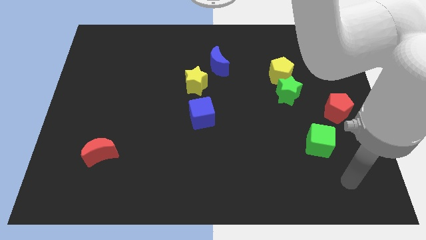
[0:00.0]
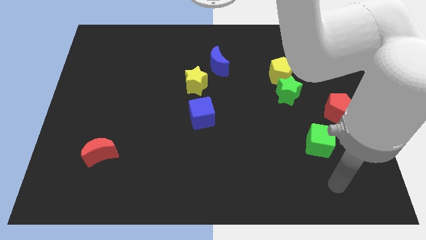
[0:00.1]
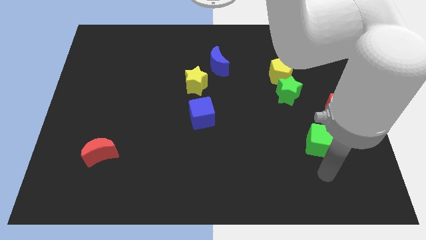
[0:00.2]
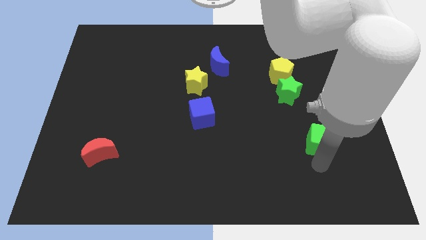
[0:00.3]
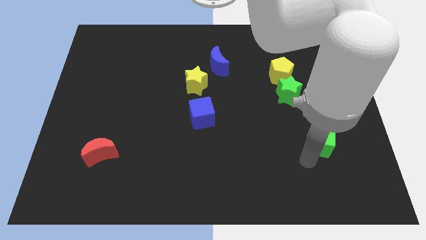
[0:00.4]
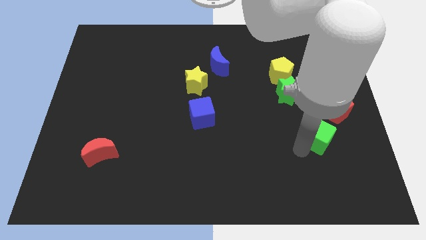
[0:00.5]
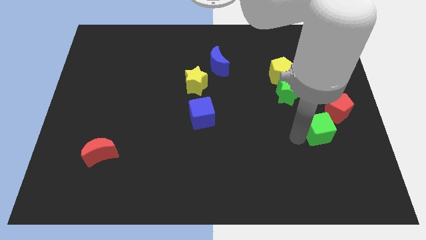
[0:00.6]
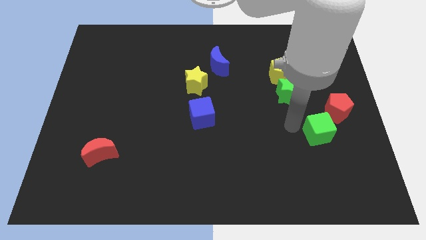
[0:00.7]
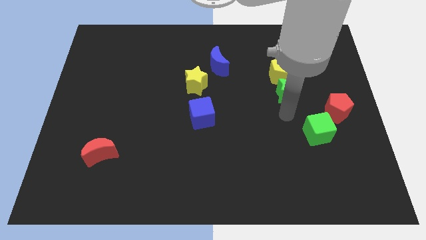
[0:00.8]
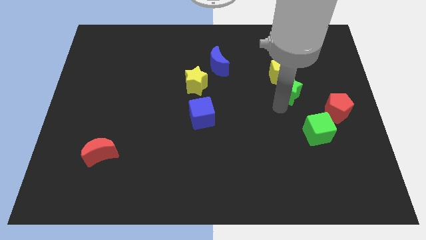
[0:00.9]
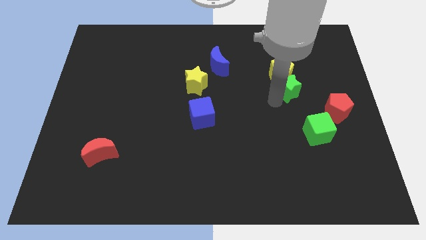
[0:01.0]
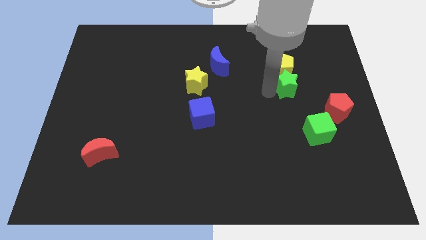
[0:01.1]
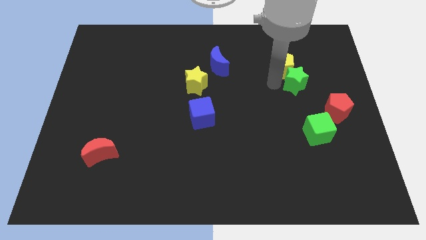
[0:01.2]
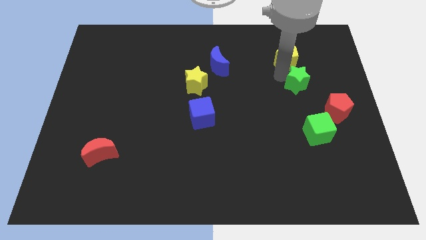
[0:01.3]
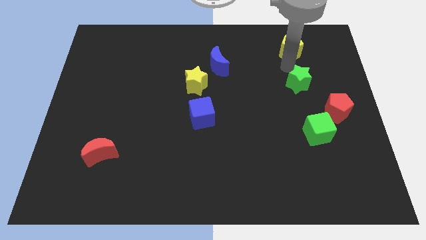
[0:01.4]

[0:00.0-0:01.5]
move the green star away from the yellow pentagon

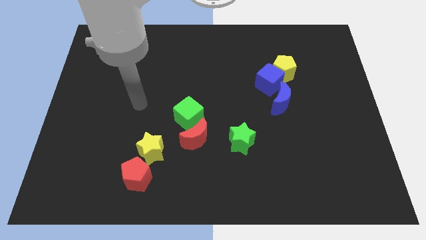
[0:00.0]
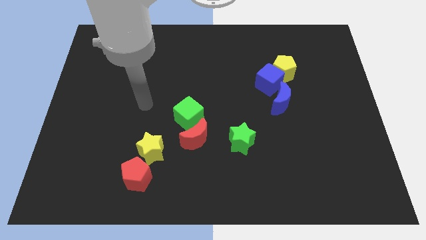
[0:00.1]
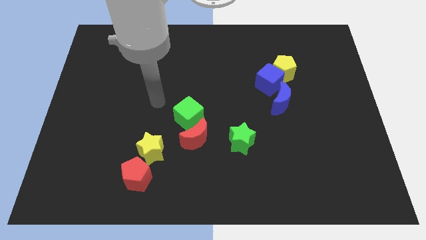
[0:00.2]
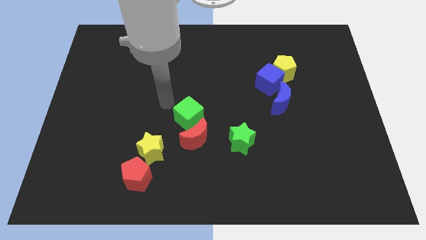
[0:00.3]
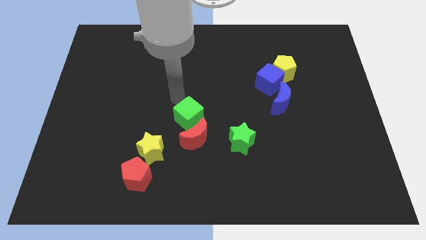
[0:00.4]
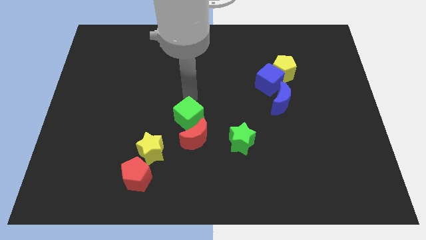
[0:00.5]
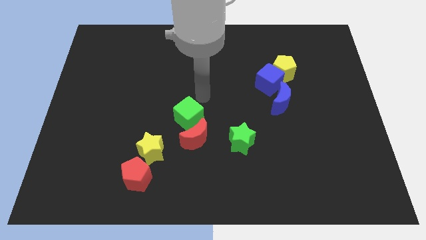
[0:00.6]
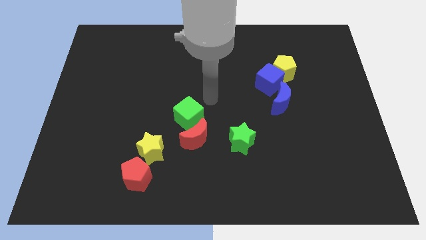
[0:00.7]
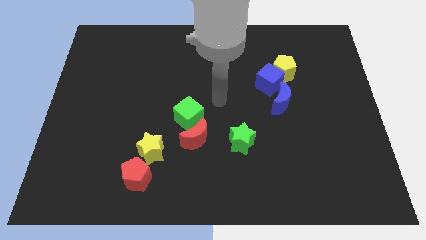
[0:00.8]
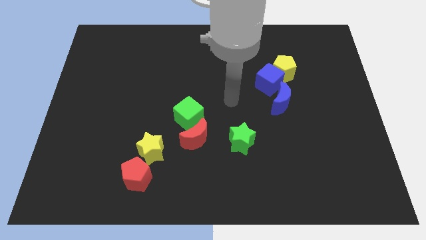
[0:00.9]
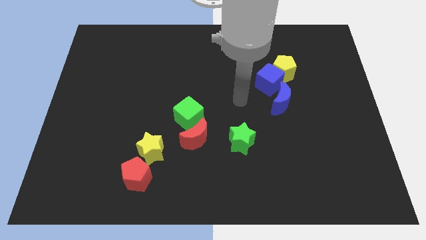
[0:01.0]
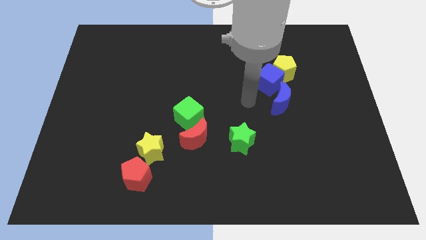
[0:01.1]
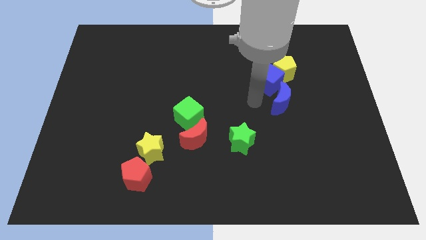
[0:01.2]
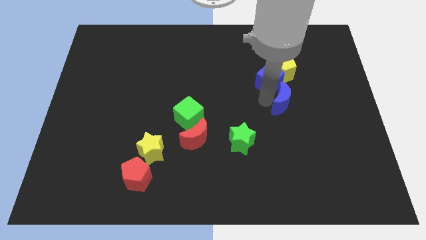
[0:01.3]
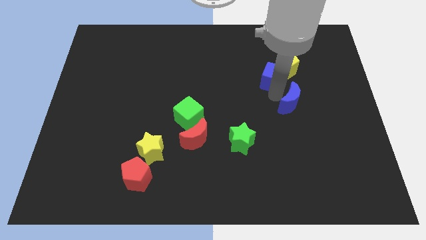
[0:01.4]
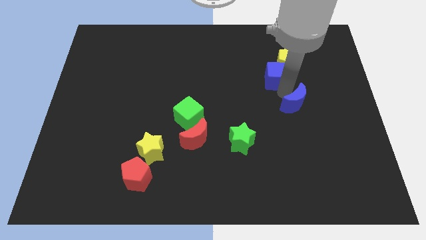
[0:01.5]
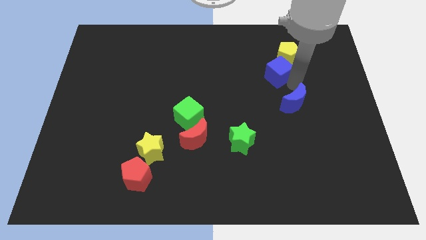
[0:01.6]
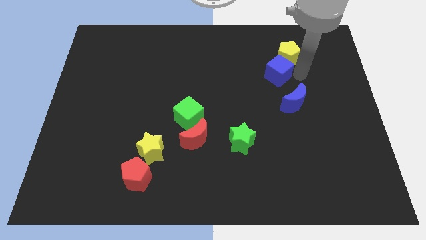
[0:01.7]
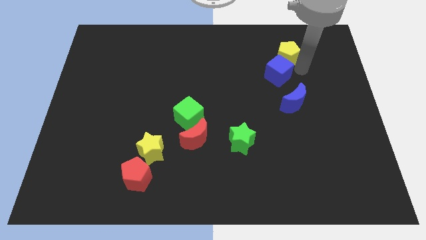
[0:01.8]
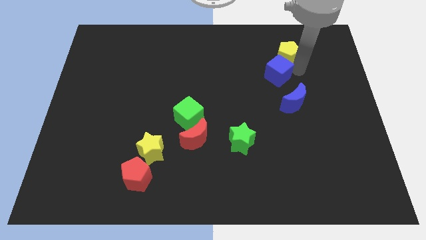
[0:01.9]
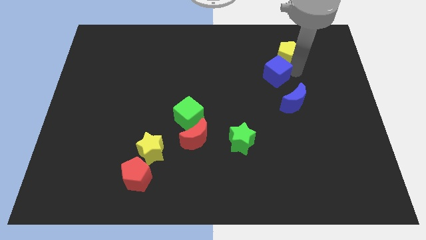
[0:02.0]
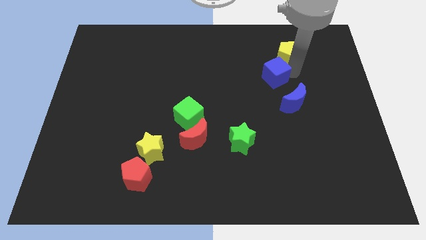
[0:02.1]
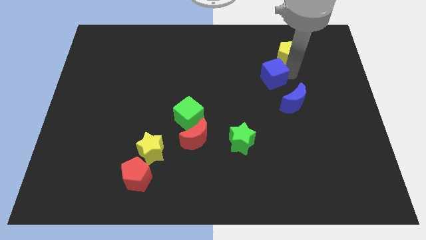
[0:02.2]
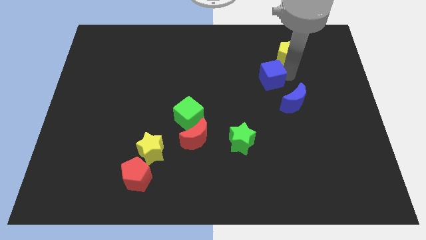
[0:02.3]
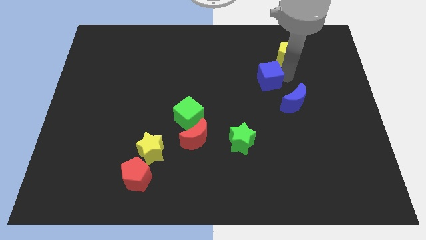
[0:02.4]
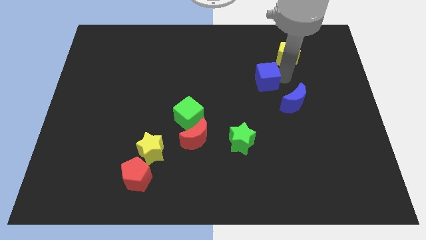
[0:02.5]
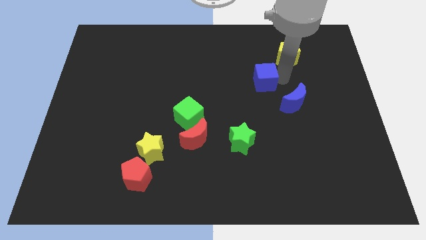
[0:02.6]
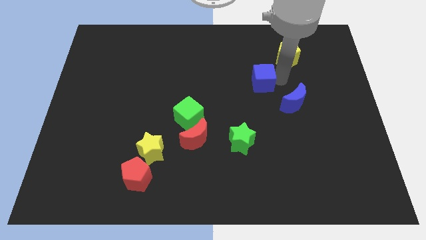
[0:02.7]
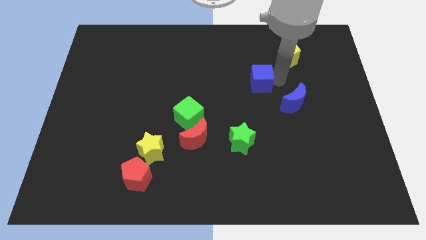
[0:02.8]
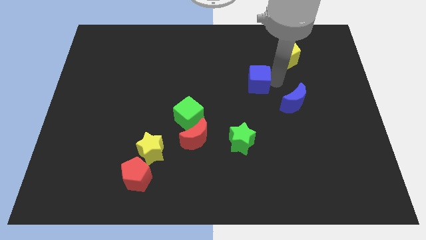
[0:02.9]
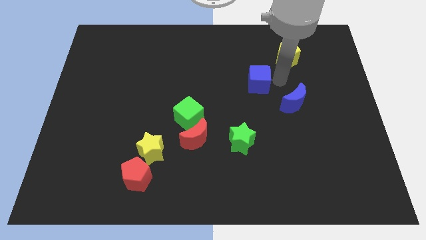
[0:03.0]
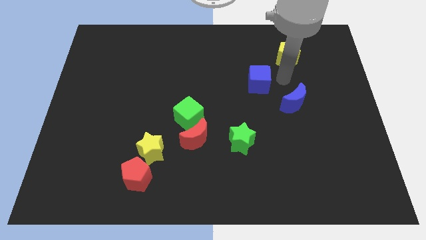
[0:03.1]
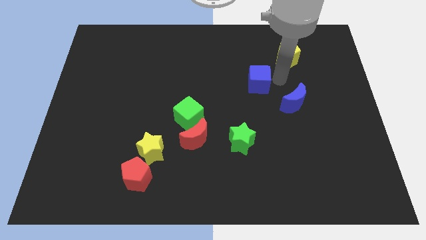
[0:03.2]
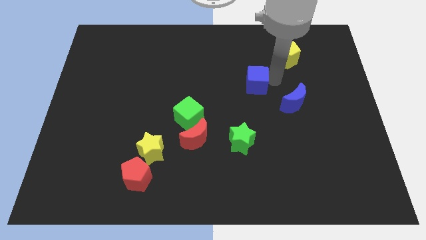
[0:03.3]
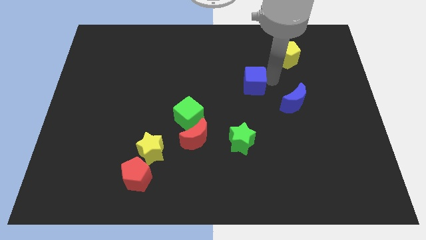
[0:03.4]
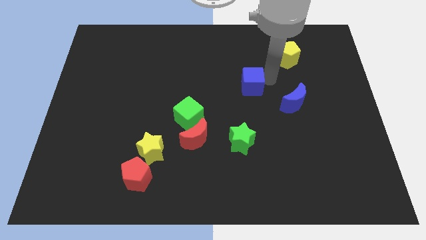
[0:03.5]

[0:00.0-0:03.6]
move the blue cube away from the yellow pentagon and blue moon

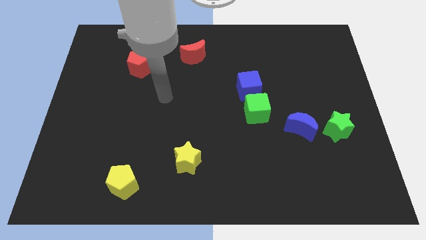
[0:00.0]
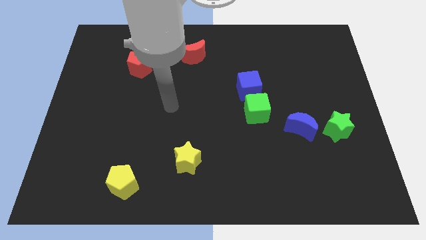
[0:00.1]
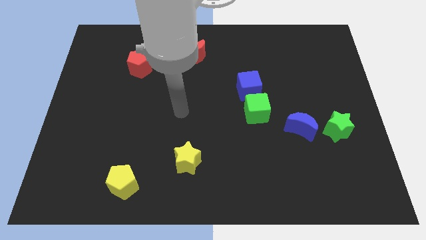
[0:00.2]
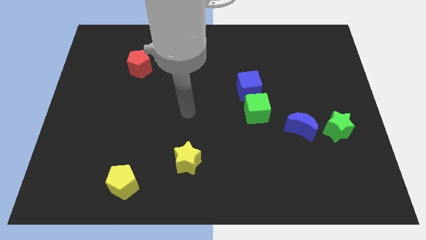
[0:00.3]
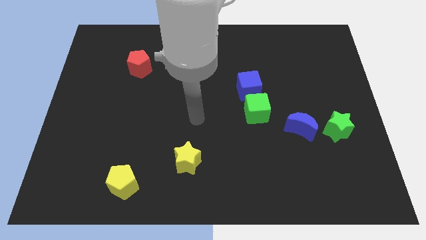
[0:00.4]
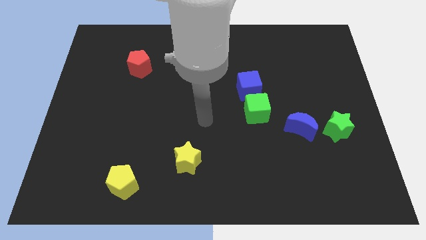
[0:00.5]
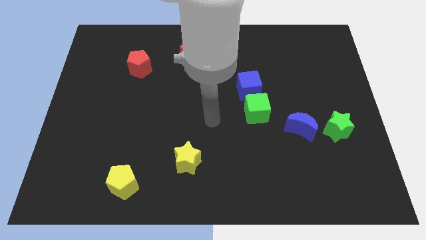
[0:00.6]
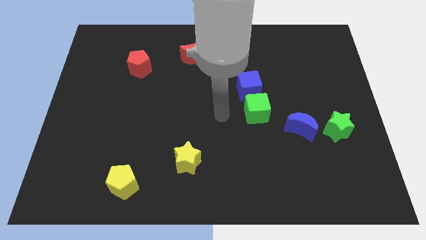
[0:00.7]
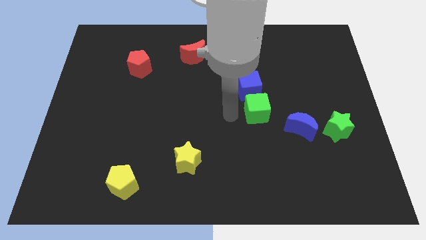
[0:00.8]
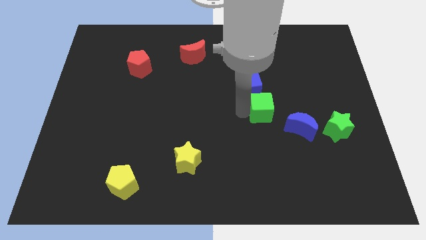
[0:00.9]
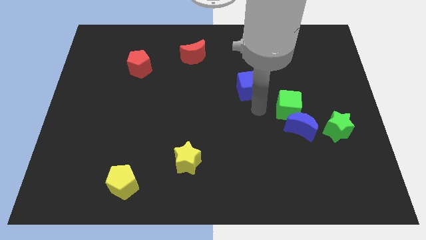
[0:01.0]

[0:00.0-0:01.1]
pull the blue cube apart from the green cube

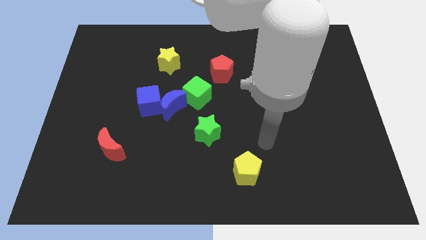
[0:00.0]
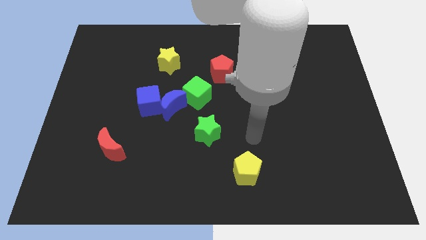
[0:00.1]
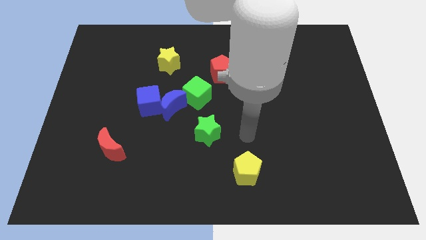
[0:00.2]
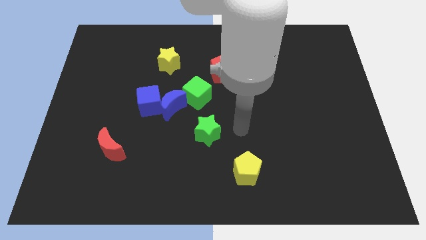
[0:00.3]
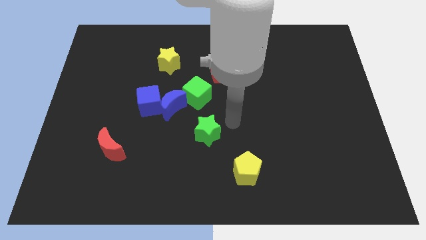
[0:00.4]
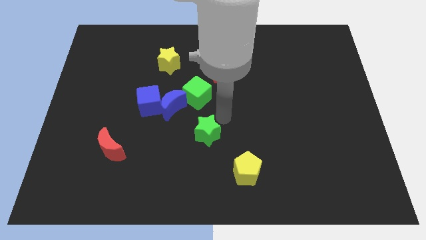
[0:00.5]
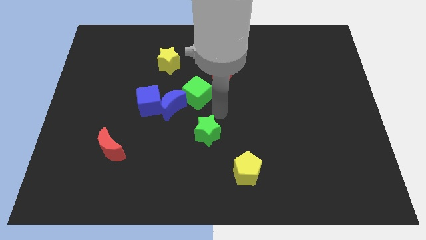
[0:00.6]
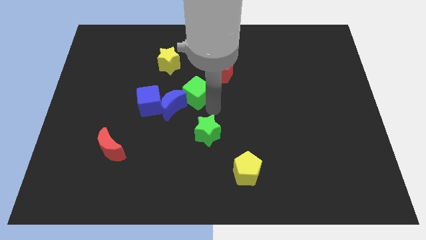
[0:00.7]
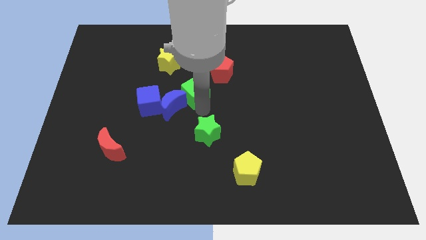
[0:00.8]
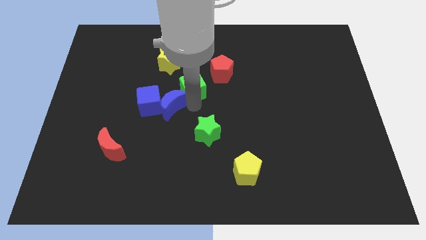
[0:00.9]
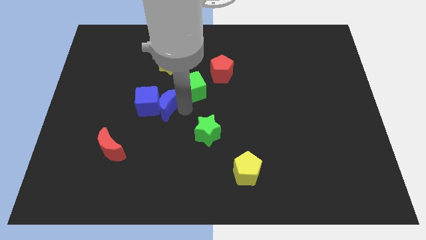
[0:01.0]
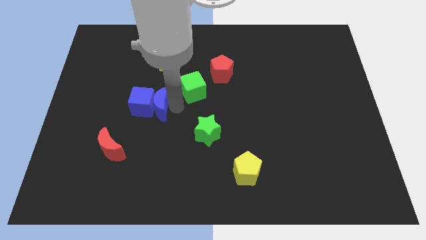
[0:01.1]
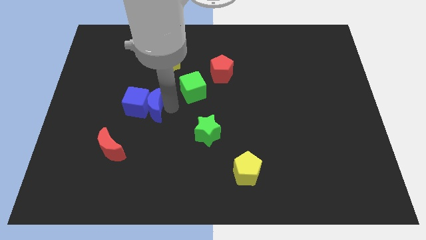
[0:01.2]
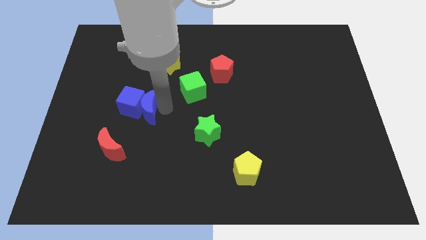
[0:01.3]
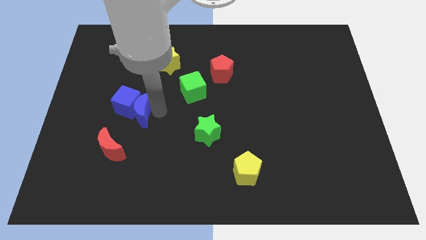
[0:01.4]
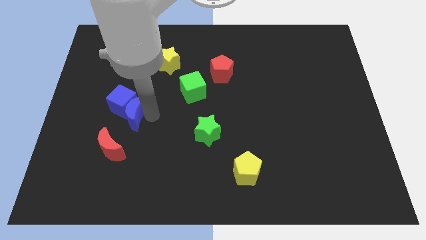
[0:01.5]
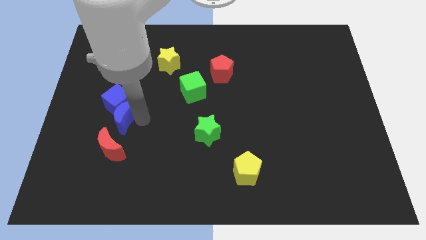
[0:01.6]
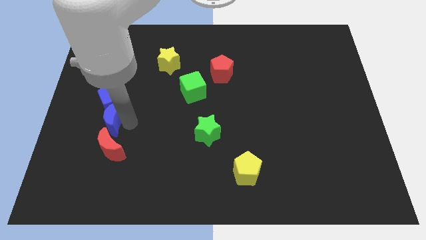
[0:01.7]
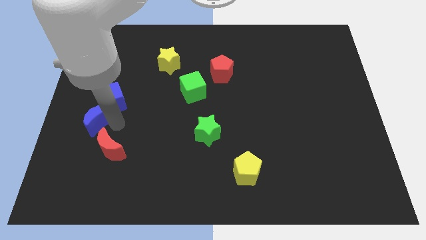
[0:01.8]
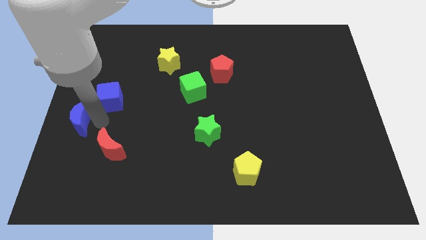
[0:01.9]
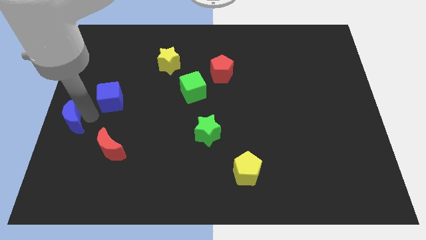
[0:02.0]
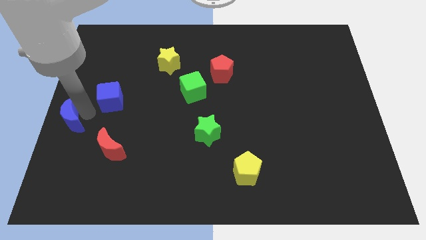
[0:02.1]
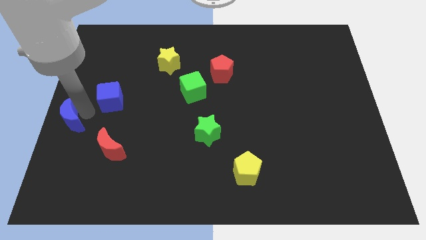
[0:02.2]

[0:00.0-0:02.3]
move the blue cube away from the blue moon

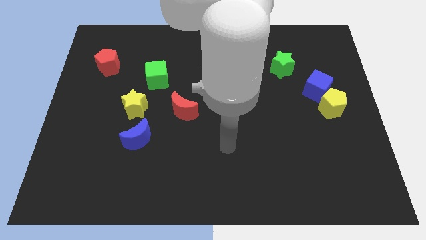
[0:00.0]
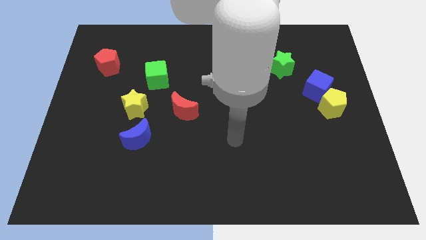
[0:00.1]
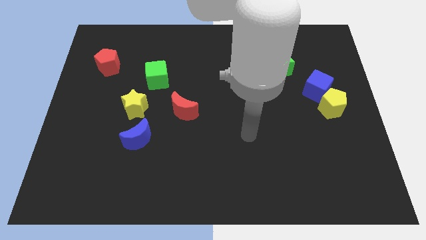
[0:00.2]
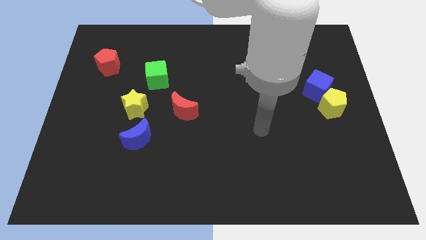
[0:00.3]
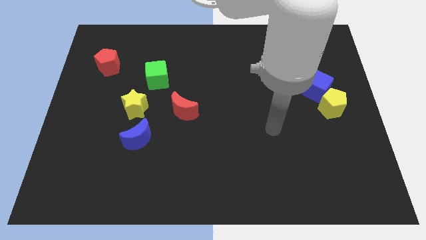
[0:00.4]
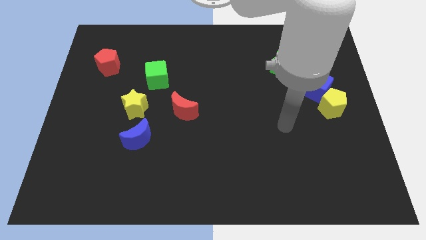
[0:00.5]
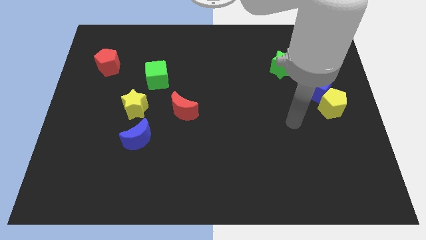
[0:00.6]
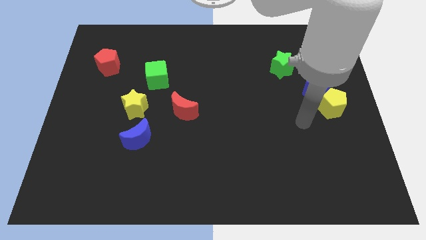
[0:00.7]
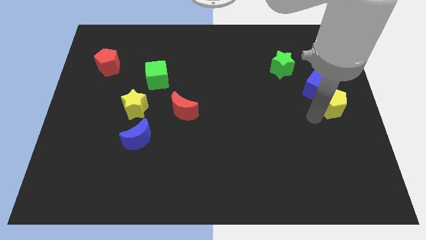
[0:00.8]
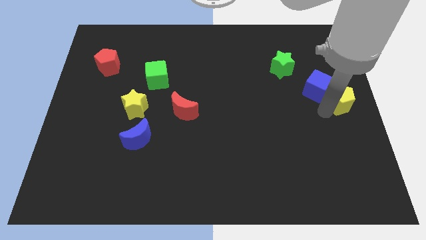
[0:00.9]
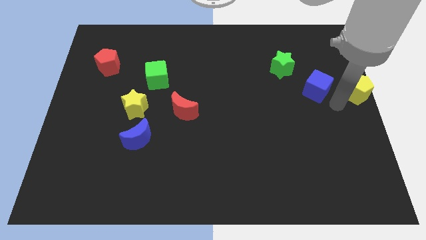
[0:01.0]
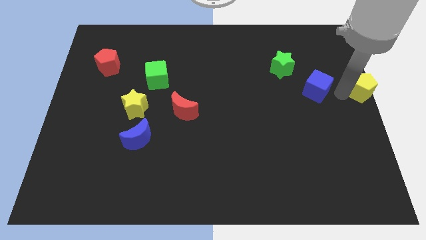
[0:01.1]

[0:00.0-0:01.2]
pull the blue cube apart from the yellow pentagon
